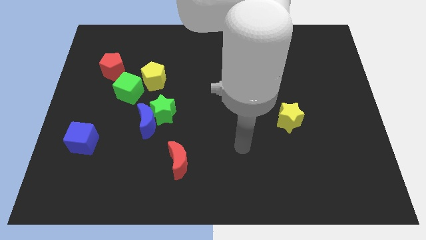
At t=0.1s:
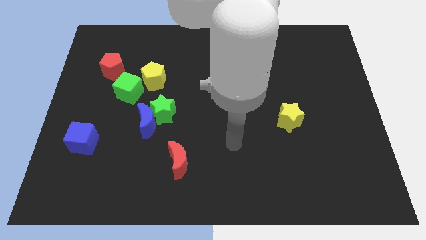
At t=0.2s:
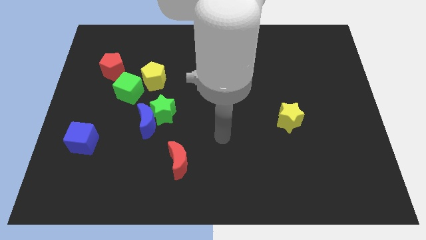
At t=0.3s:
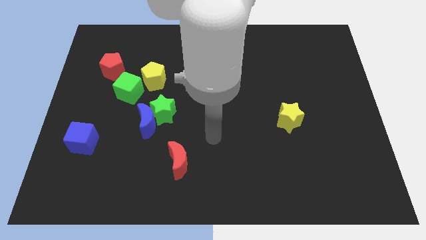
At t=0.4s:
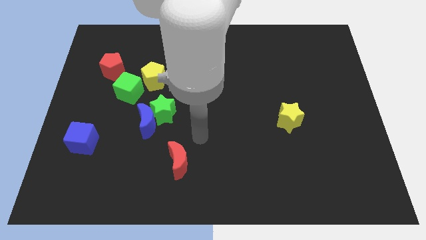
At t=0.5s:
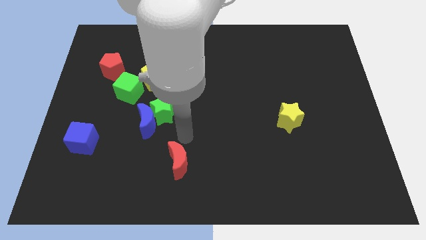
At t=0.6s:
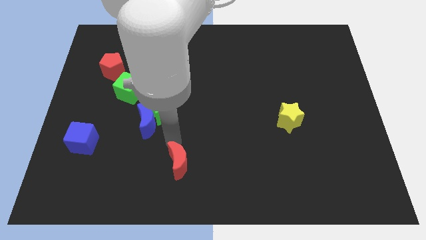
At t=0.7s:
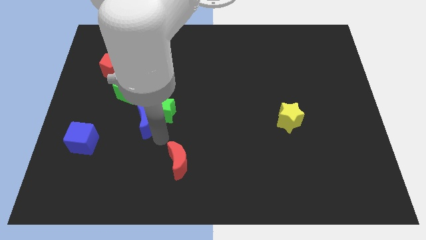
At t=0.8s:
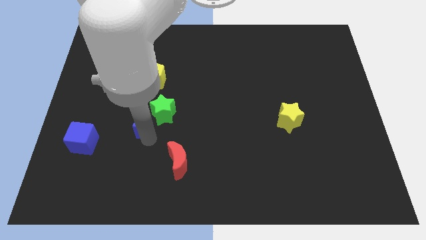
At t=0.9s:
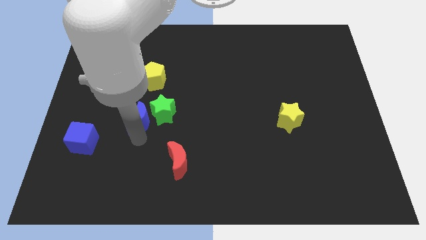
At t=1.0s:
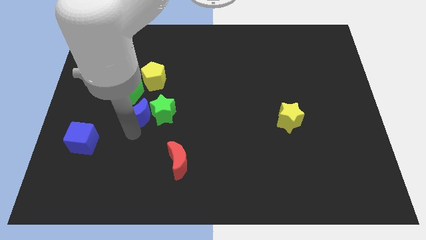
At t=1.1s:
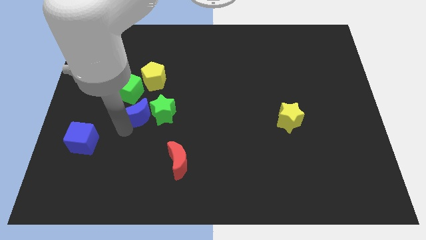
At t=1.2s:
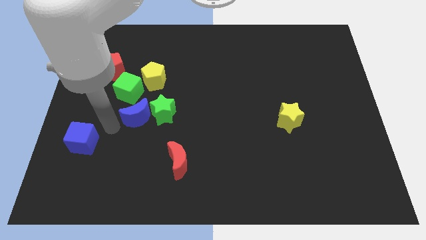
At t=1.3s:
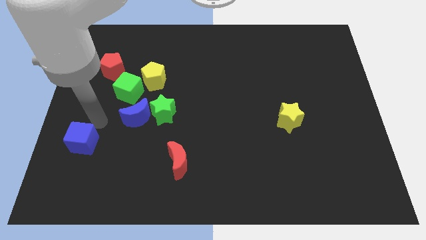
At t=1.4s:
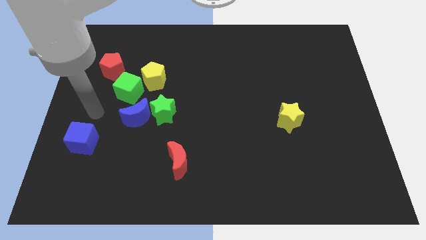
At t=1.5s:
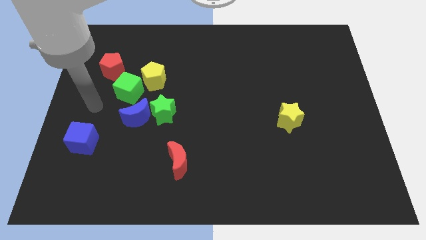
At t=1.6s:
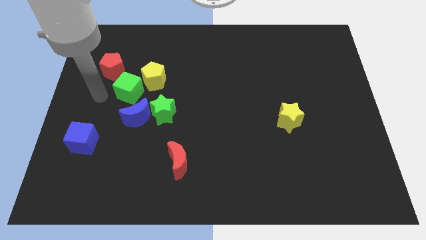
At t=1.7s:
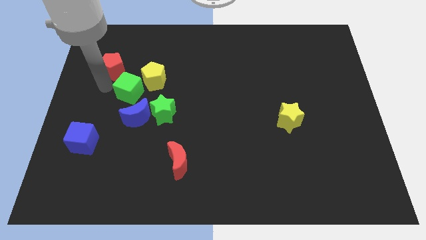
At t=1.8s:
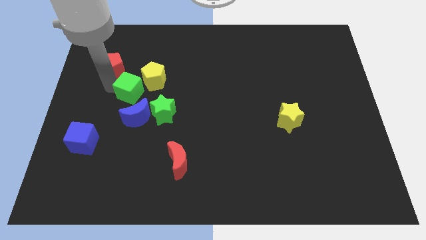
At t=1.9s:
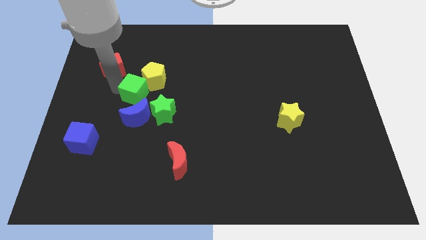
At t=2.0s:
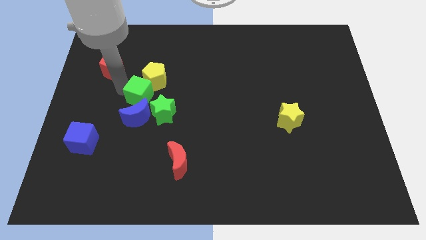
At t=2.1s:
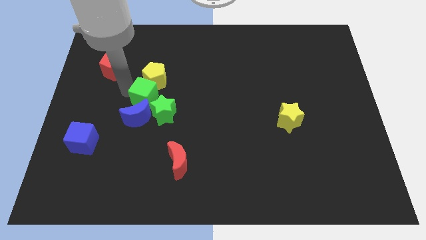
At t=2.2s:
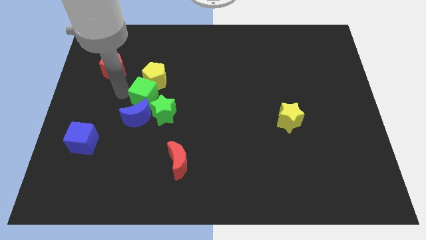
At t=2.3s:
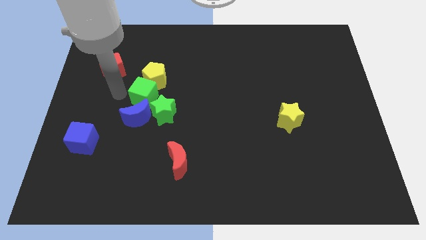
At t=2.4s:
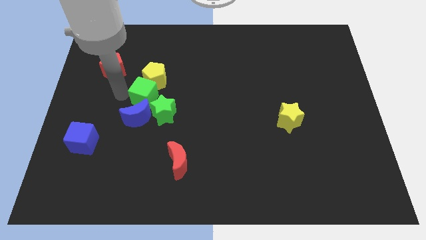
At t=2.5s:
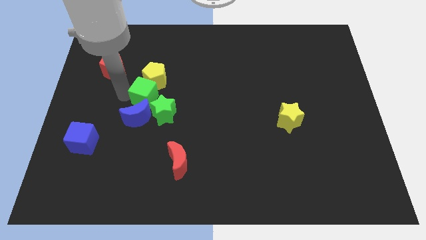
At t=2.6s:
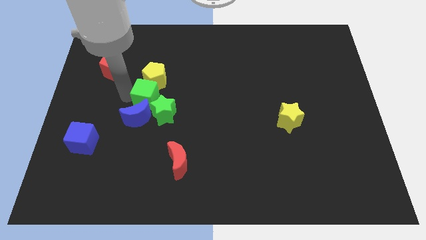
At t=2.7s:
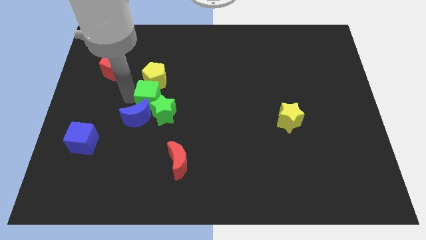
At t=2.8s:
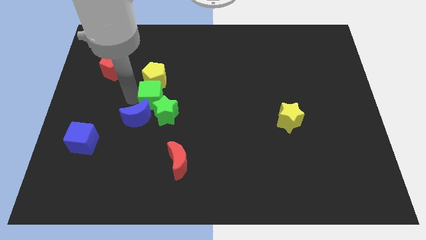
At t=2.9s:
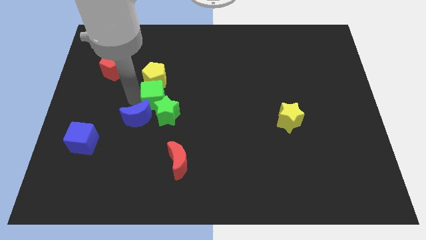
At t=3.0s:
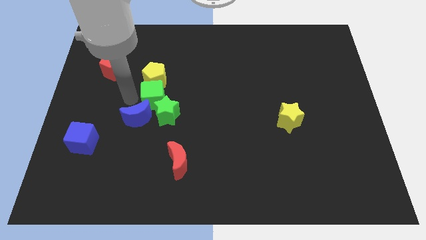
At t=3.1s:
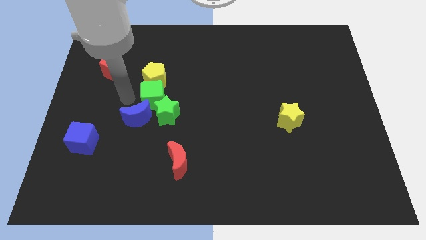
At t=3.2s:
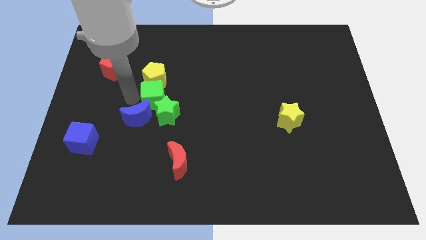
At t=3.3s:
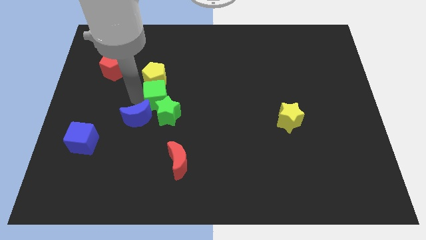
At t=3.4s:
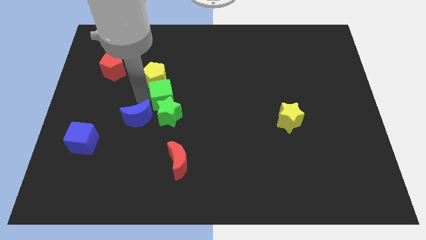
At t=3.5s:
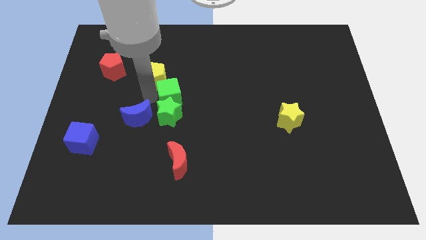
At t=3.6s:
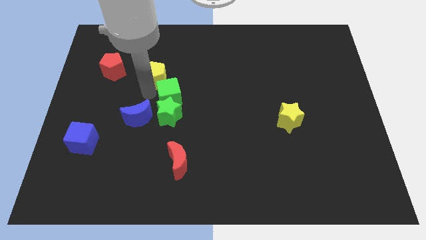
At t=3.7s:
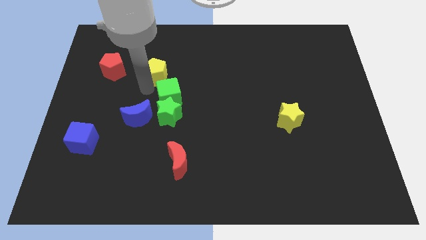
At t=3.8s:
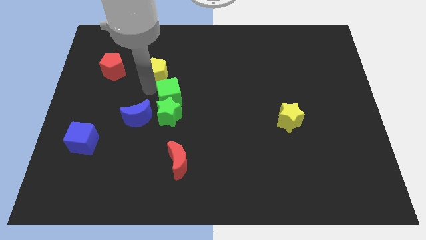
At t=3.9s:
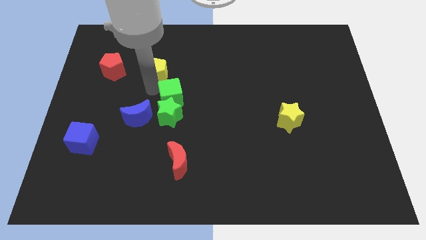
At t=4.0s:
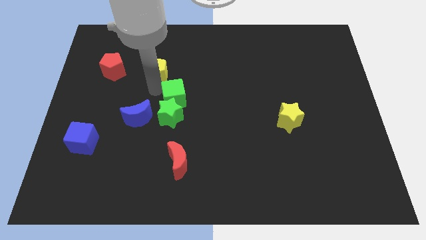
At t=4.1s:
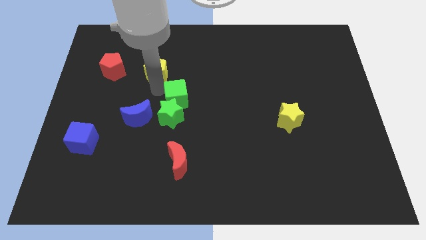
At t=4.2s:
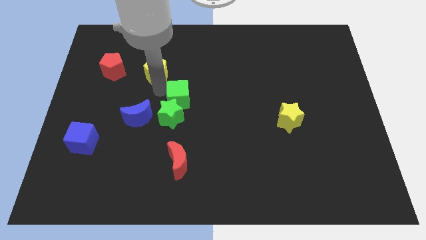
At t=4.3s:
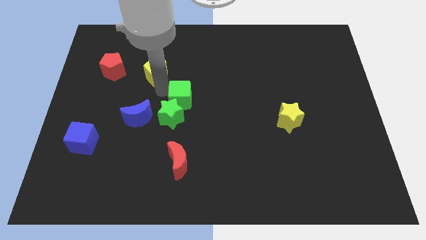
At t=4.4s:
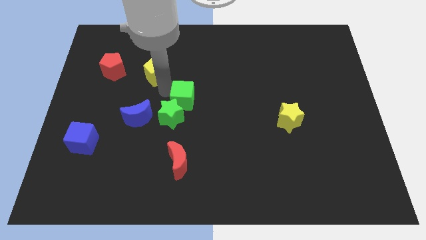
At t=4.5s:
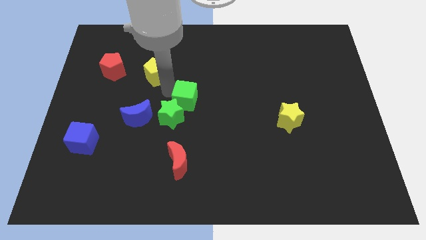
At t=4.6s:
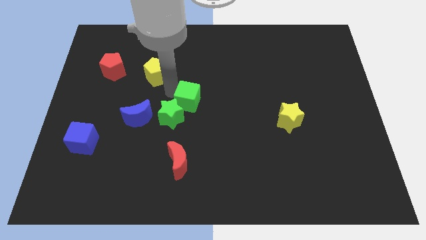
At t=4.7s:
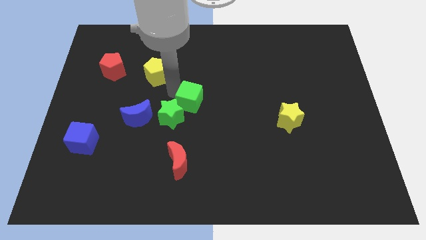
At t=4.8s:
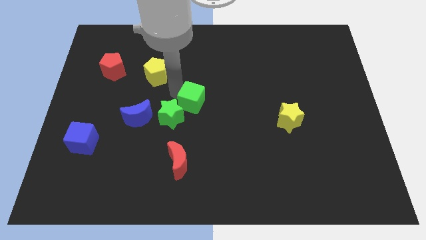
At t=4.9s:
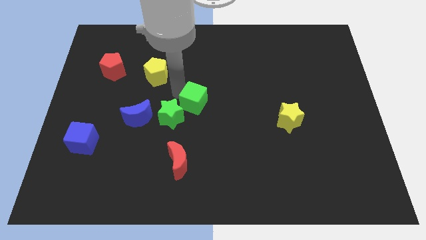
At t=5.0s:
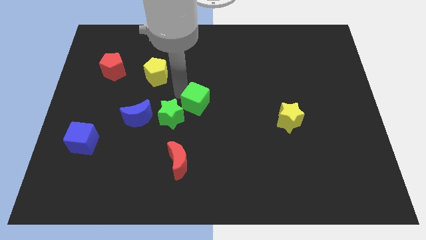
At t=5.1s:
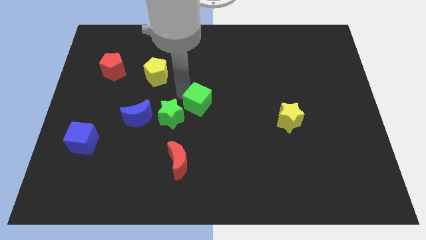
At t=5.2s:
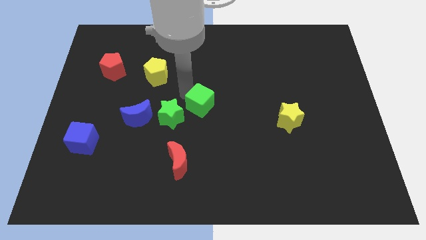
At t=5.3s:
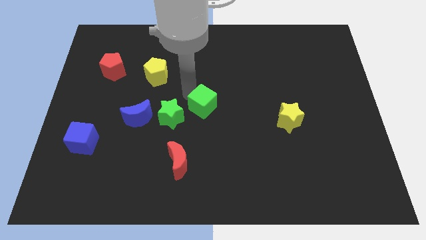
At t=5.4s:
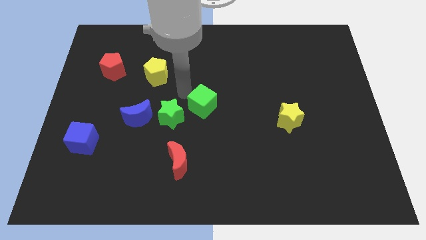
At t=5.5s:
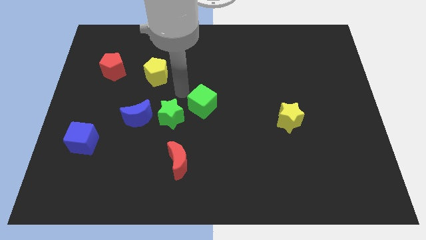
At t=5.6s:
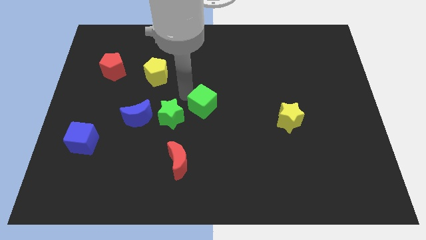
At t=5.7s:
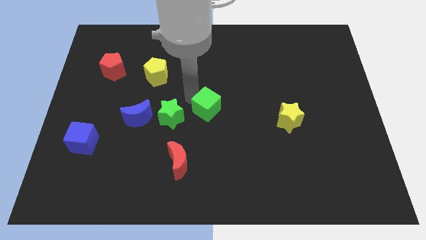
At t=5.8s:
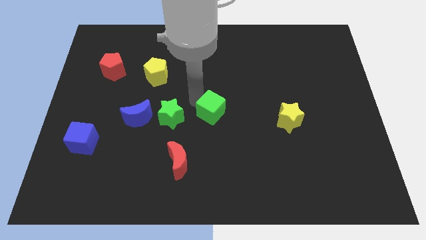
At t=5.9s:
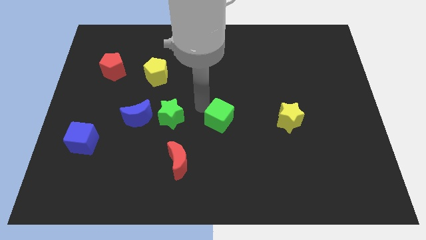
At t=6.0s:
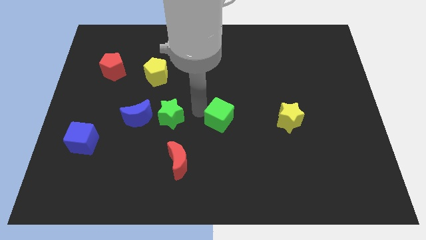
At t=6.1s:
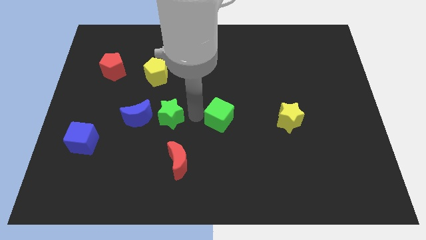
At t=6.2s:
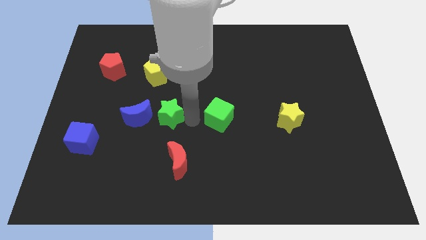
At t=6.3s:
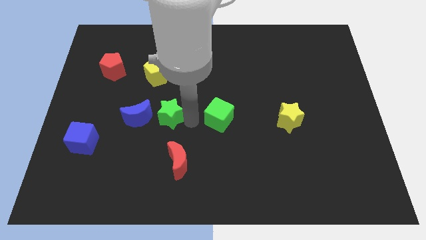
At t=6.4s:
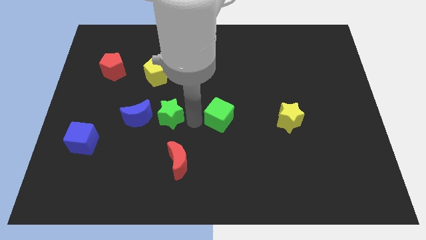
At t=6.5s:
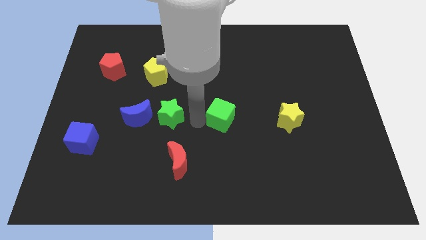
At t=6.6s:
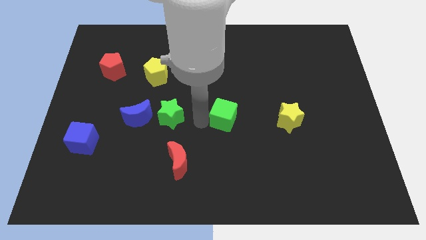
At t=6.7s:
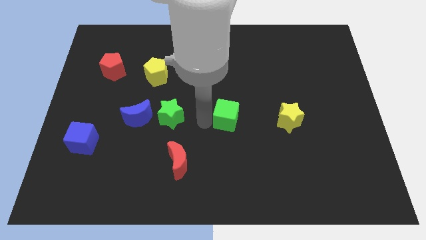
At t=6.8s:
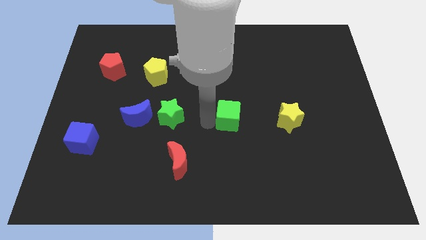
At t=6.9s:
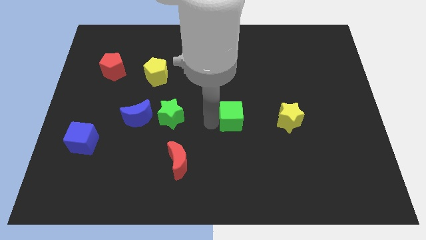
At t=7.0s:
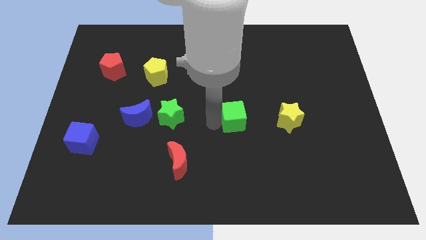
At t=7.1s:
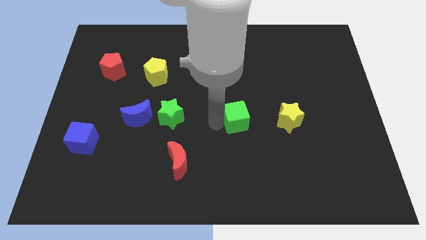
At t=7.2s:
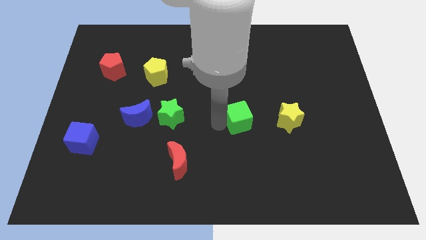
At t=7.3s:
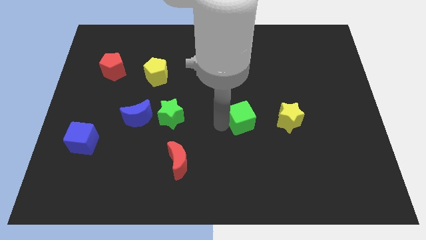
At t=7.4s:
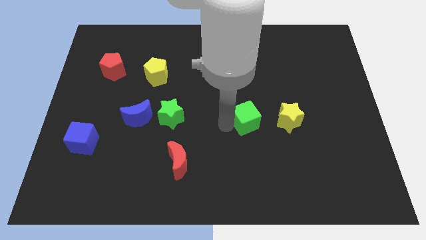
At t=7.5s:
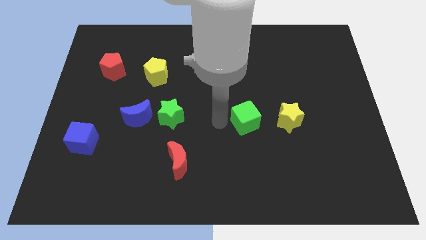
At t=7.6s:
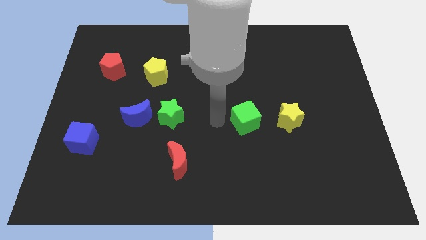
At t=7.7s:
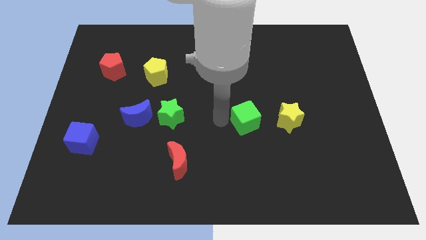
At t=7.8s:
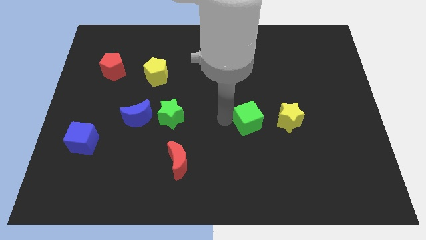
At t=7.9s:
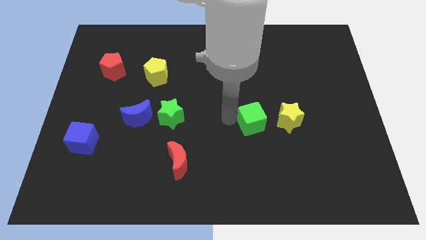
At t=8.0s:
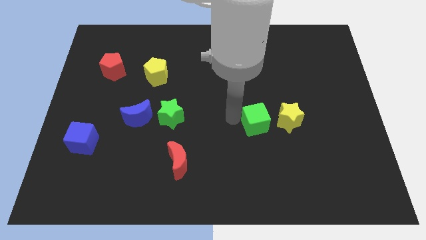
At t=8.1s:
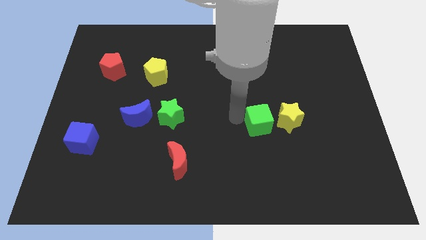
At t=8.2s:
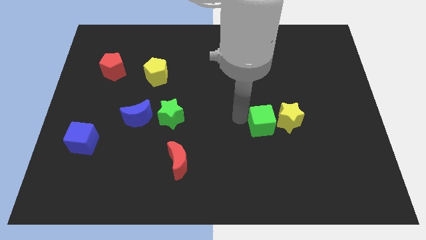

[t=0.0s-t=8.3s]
slide the green cube to the yellow star
